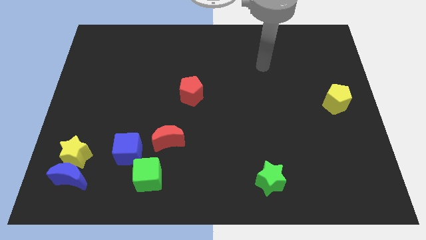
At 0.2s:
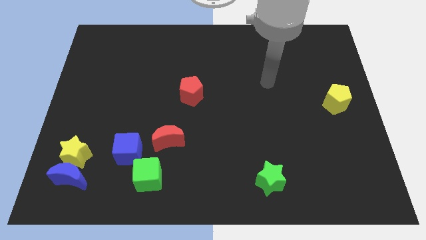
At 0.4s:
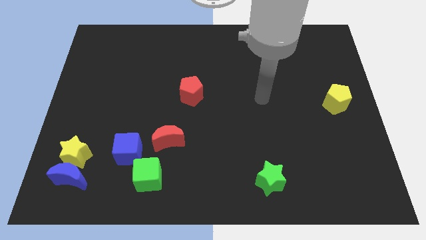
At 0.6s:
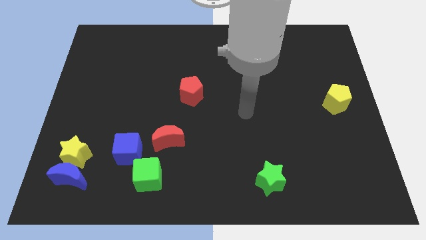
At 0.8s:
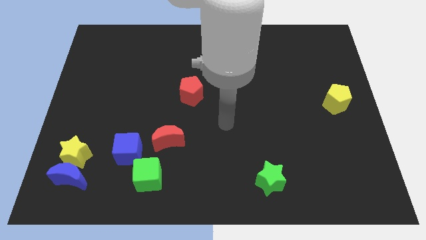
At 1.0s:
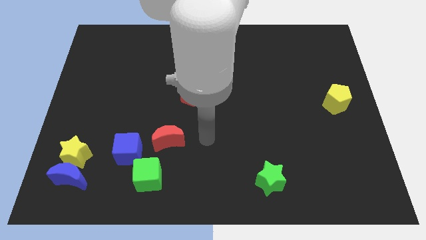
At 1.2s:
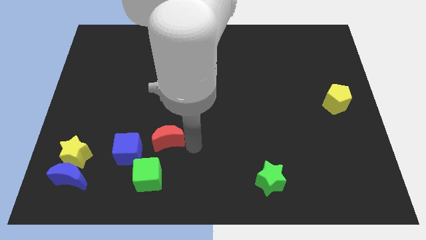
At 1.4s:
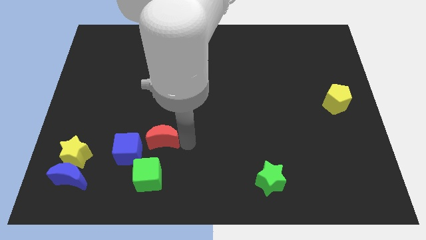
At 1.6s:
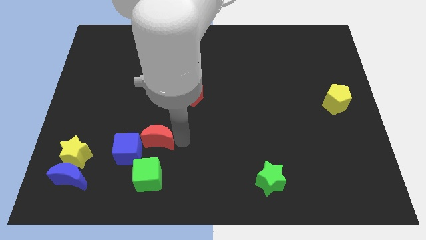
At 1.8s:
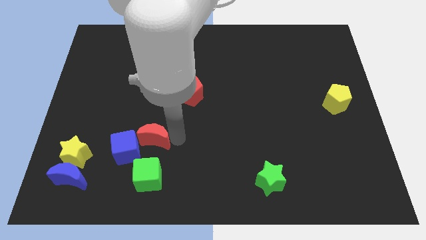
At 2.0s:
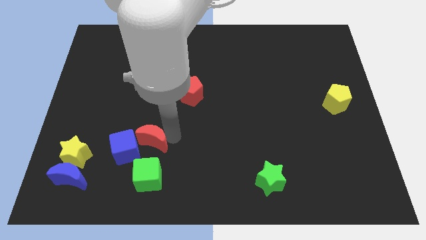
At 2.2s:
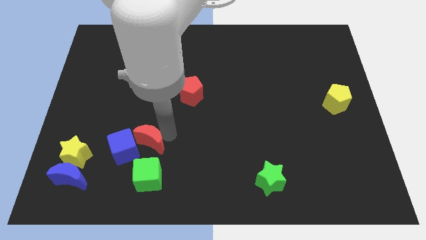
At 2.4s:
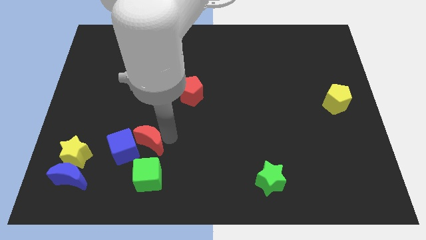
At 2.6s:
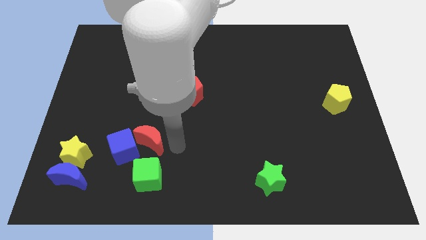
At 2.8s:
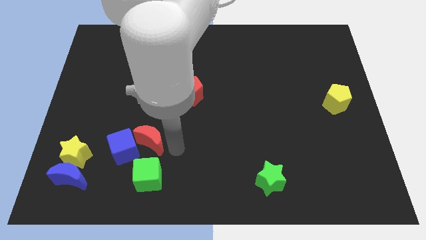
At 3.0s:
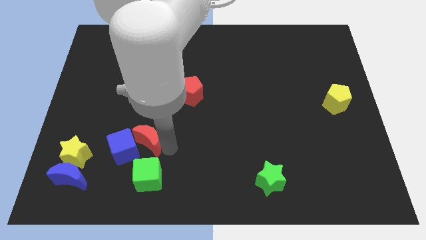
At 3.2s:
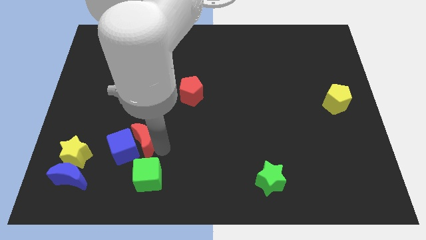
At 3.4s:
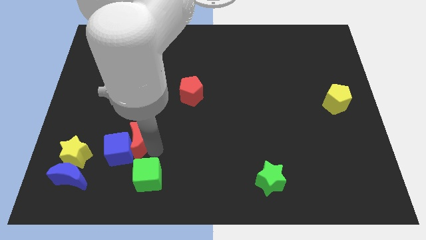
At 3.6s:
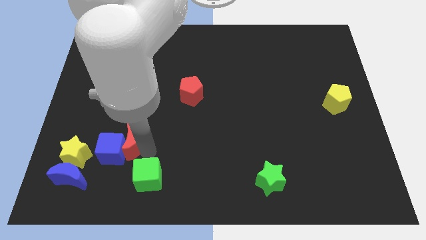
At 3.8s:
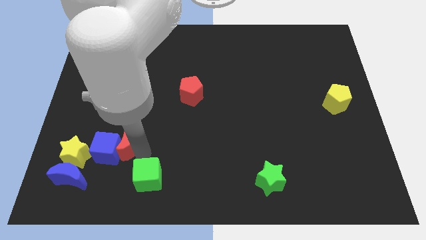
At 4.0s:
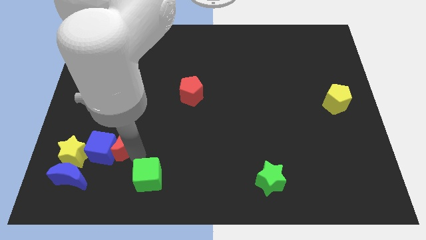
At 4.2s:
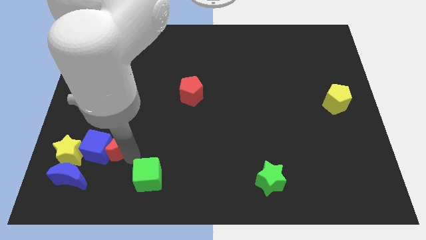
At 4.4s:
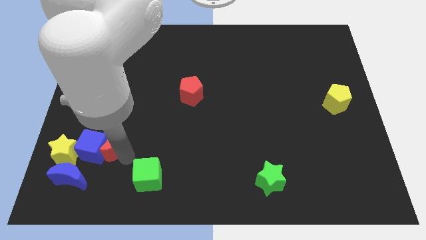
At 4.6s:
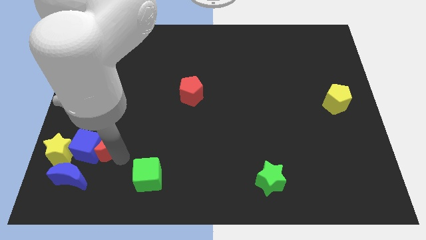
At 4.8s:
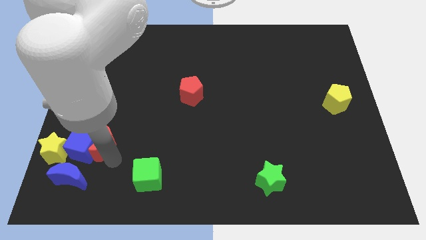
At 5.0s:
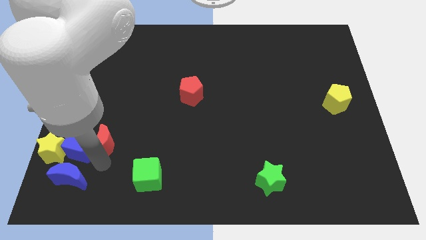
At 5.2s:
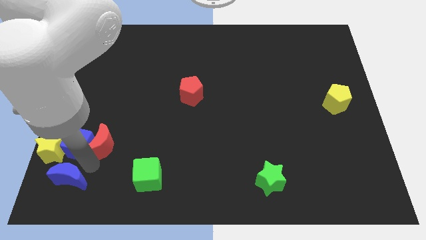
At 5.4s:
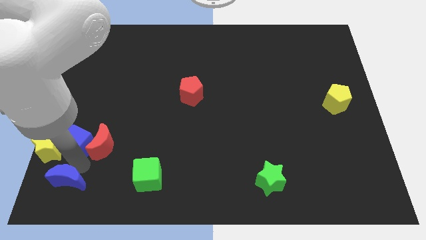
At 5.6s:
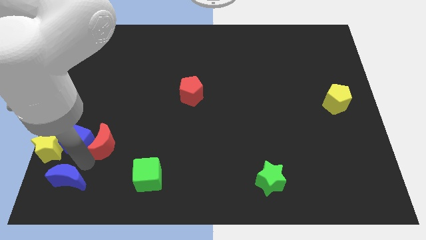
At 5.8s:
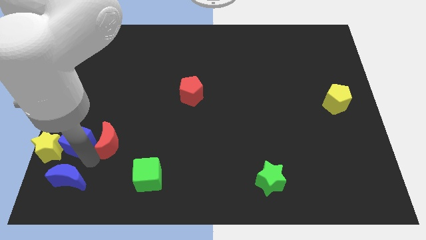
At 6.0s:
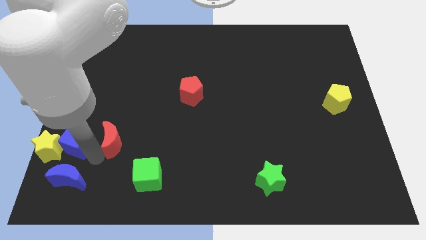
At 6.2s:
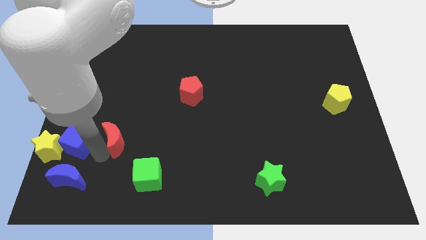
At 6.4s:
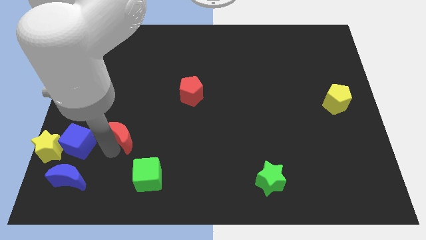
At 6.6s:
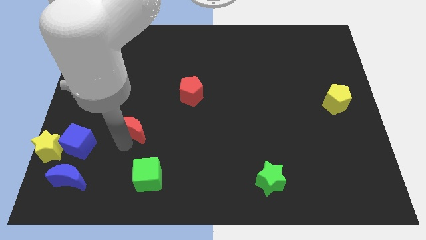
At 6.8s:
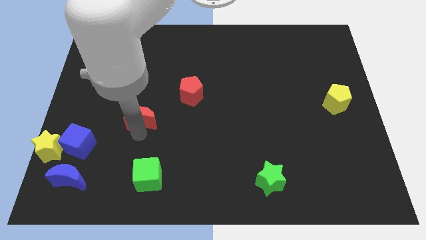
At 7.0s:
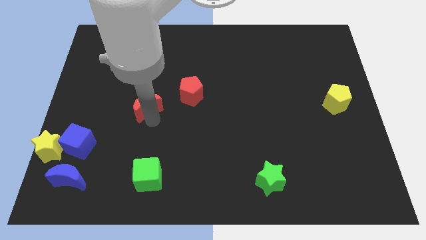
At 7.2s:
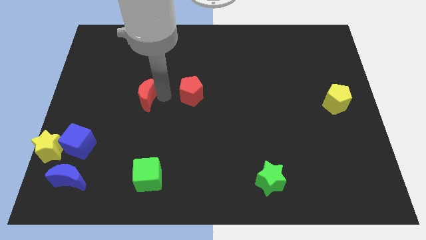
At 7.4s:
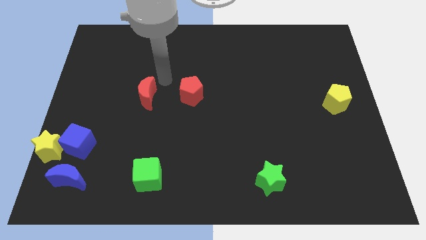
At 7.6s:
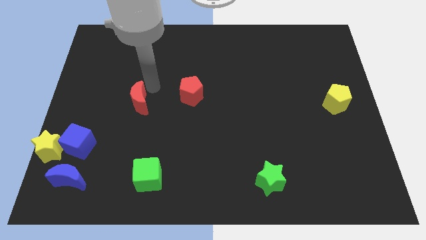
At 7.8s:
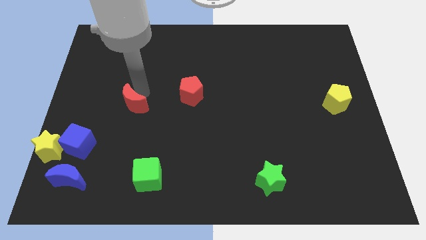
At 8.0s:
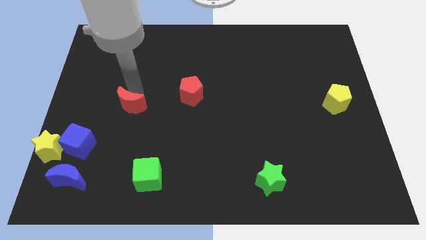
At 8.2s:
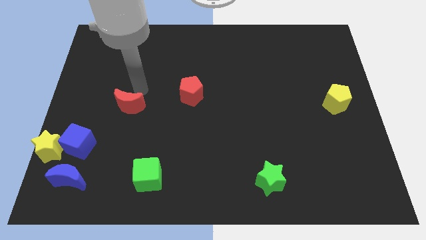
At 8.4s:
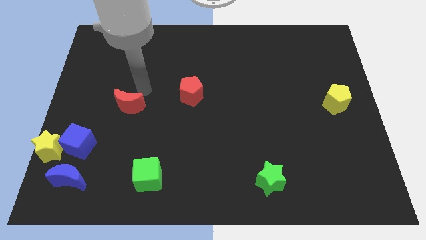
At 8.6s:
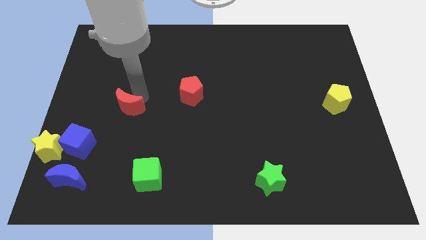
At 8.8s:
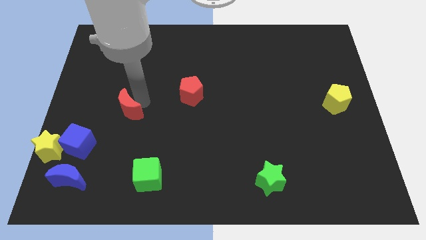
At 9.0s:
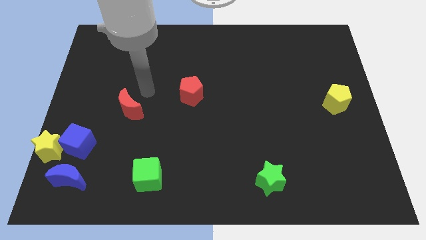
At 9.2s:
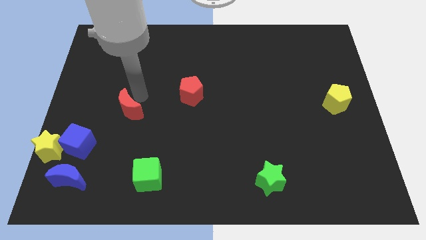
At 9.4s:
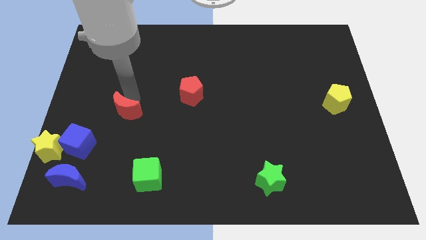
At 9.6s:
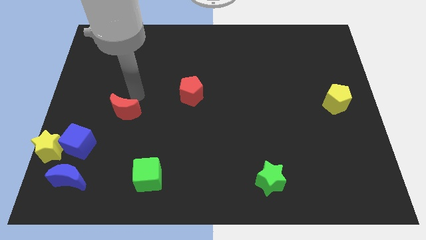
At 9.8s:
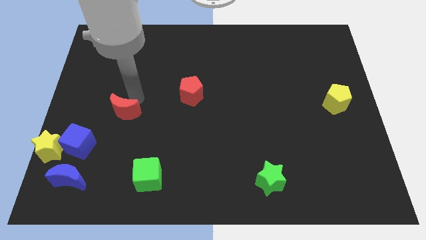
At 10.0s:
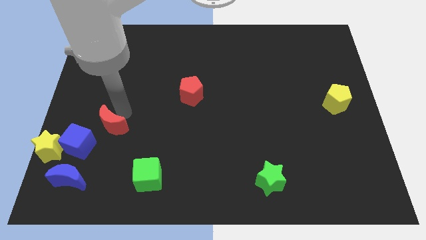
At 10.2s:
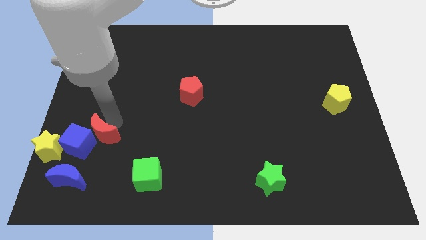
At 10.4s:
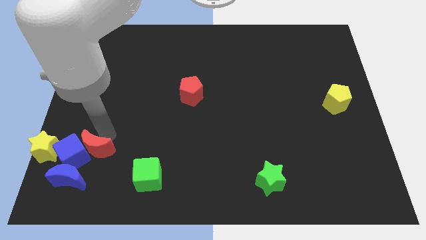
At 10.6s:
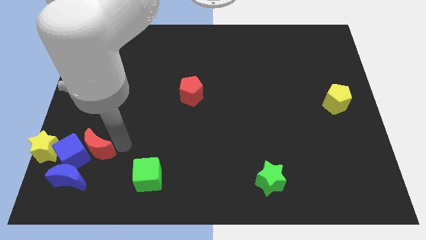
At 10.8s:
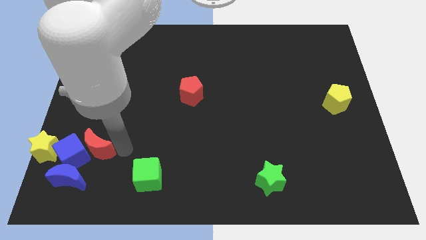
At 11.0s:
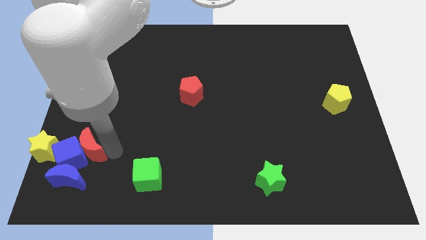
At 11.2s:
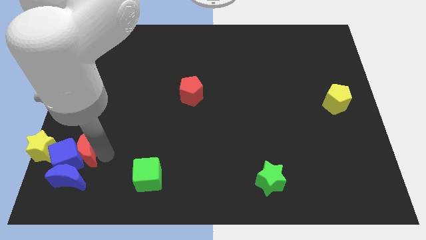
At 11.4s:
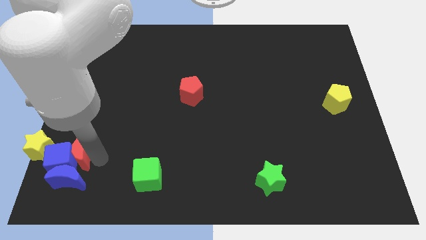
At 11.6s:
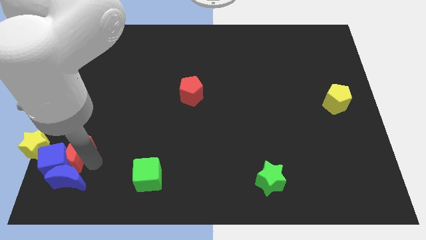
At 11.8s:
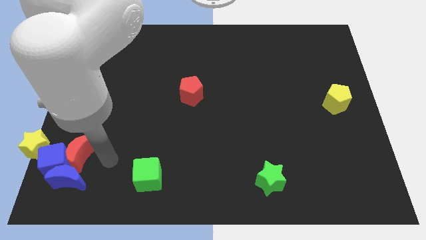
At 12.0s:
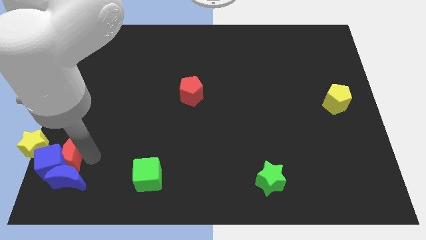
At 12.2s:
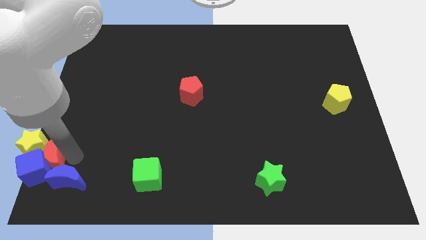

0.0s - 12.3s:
slide the red moon to the yellow star

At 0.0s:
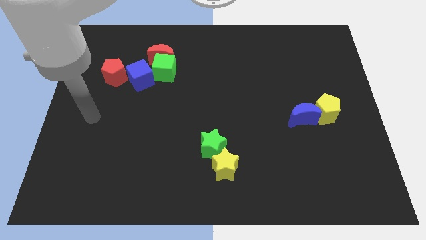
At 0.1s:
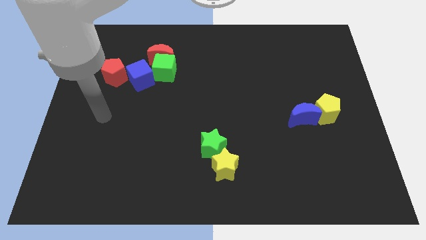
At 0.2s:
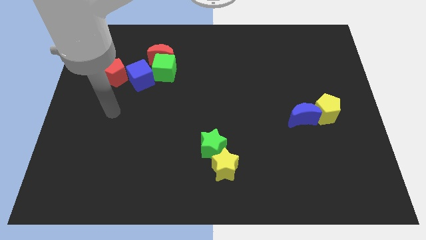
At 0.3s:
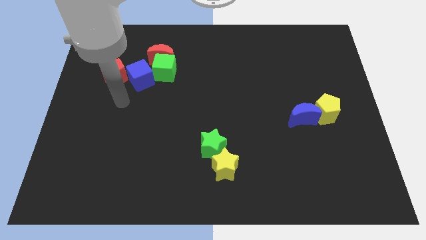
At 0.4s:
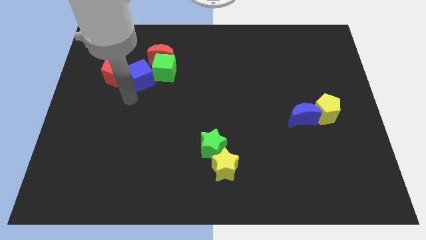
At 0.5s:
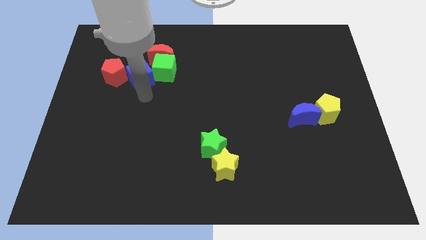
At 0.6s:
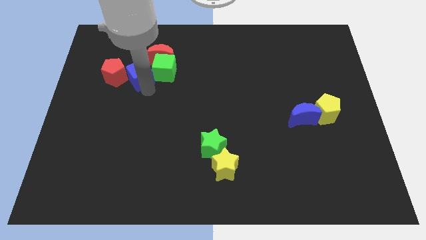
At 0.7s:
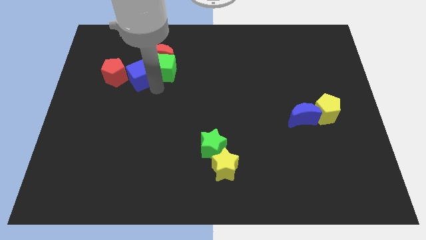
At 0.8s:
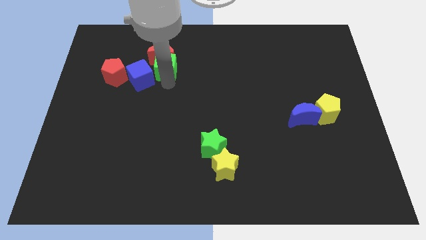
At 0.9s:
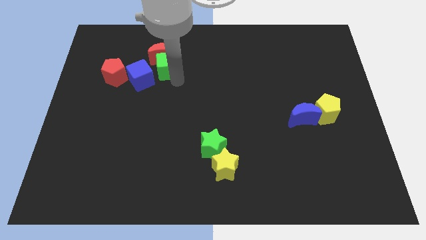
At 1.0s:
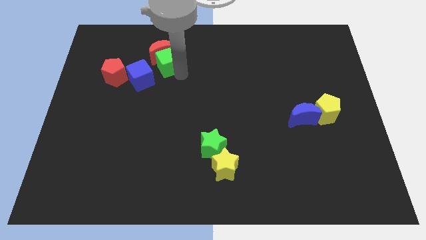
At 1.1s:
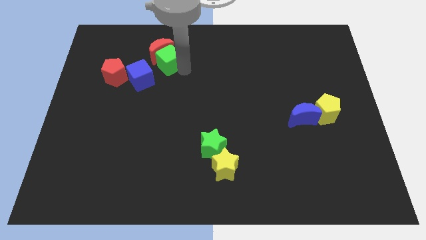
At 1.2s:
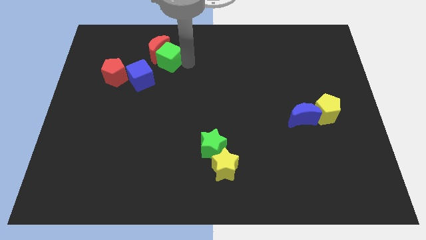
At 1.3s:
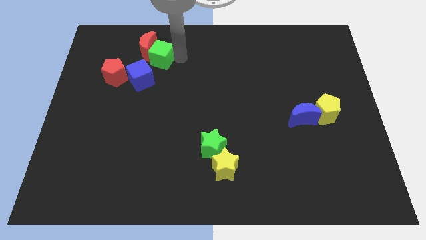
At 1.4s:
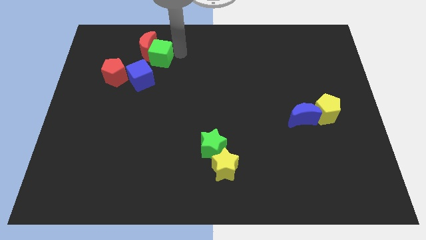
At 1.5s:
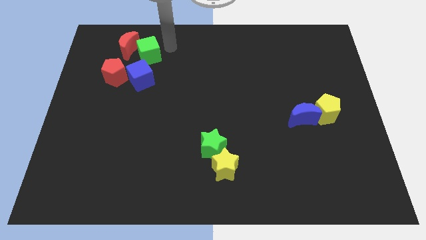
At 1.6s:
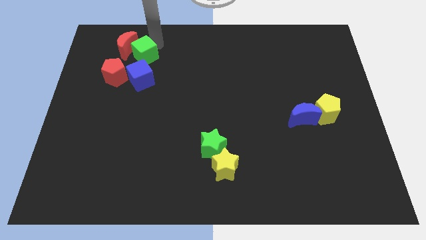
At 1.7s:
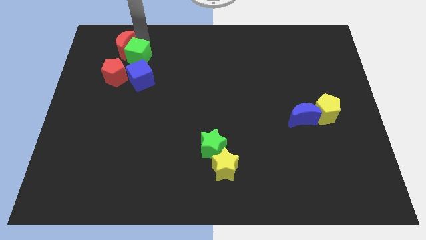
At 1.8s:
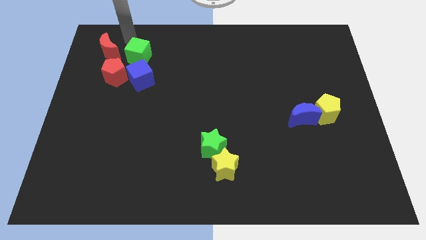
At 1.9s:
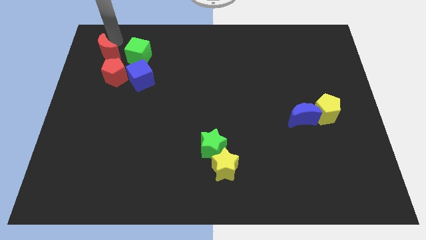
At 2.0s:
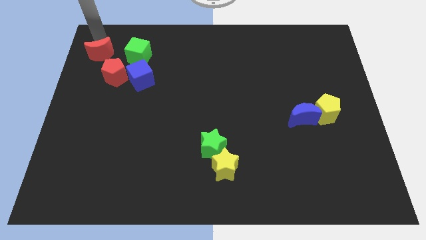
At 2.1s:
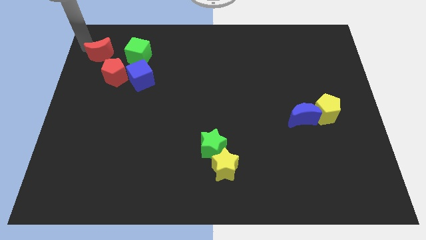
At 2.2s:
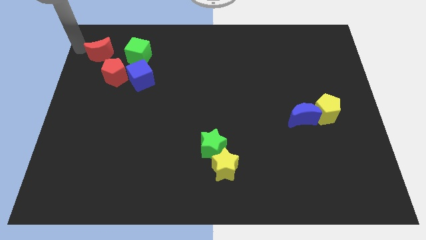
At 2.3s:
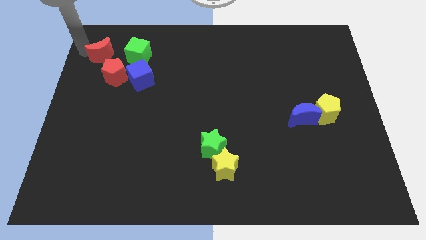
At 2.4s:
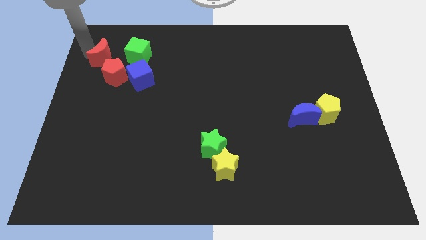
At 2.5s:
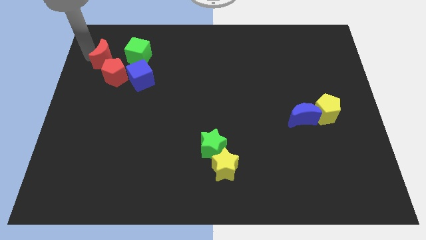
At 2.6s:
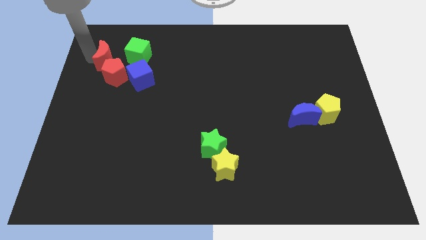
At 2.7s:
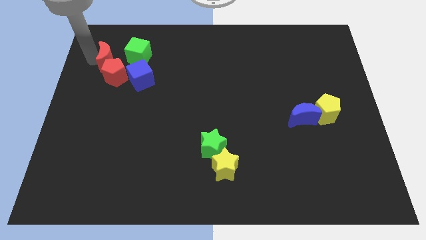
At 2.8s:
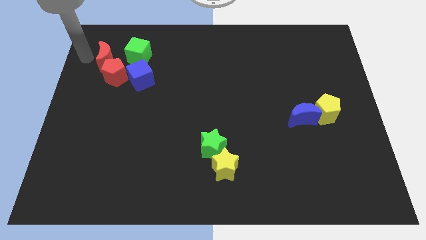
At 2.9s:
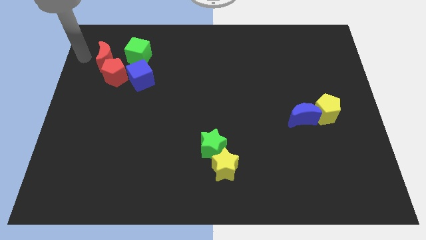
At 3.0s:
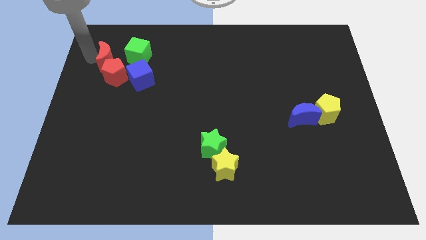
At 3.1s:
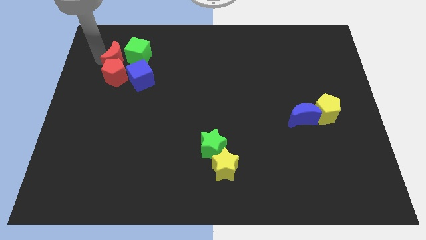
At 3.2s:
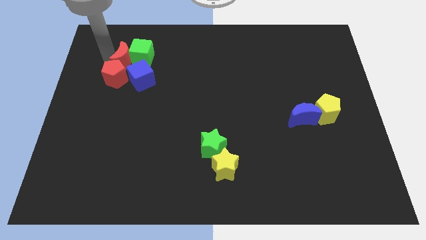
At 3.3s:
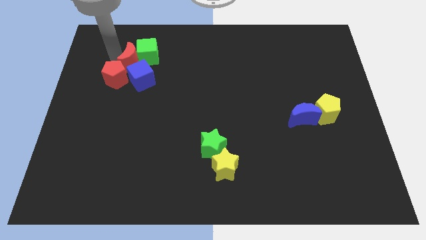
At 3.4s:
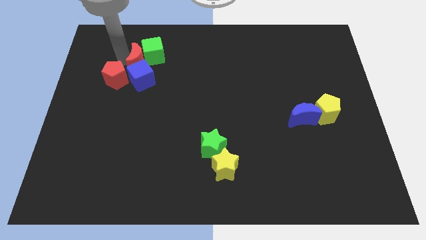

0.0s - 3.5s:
push the red moon close to the blue cube
